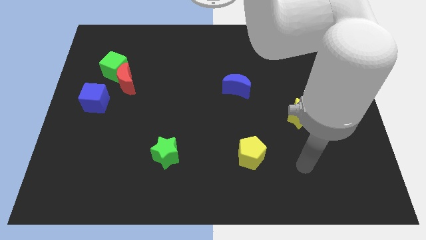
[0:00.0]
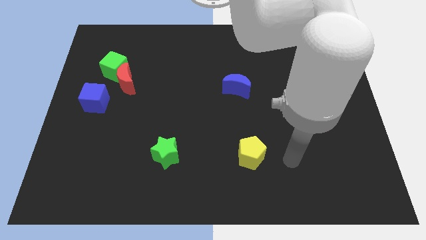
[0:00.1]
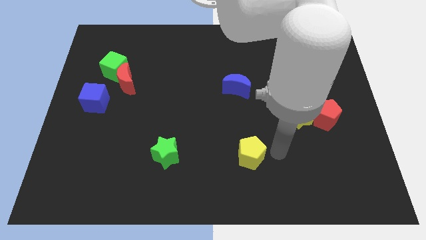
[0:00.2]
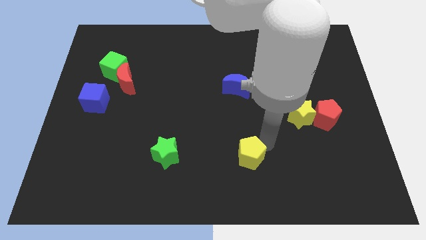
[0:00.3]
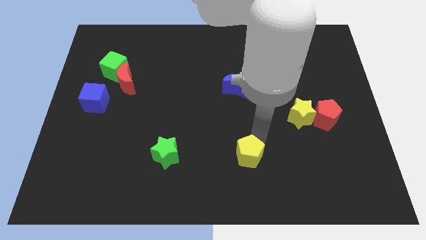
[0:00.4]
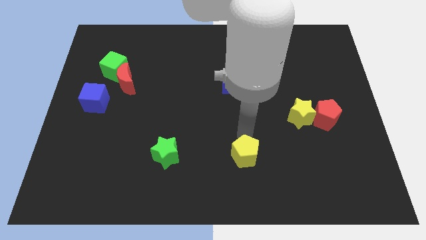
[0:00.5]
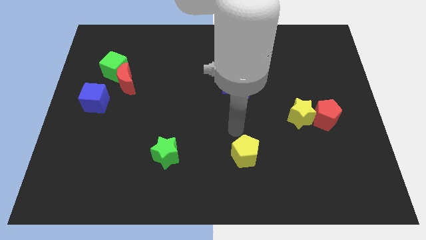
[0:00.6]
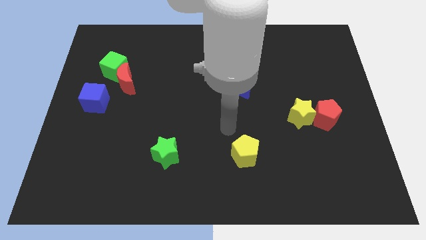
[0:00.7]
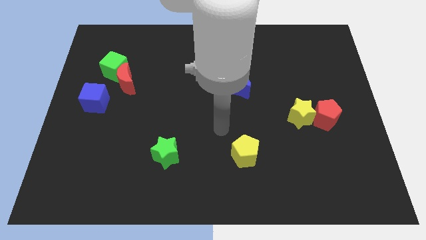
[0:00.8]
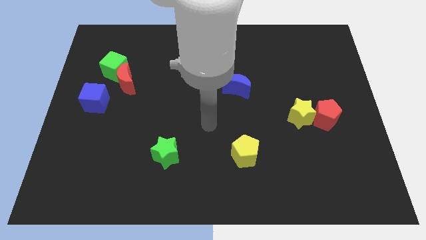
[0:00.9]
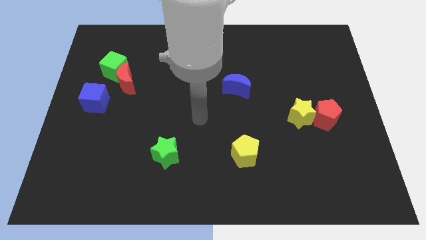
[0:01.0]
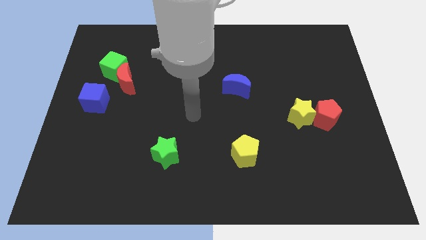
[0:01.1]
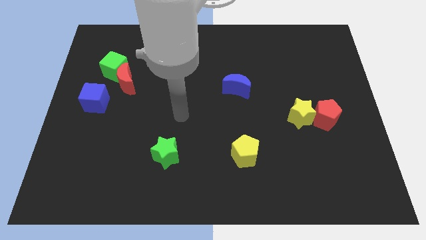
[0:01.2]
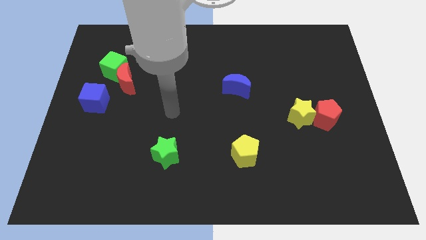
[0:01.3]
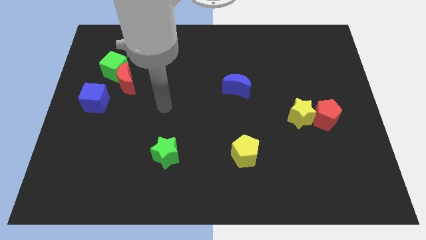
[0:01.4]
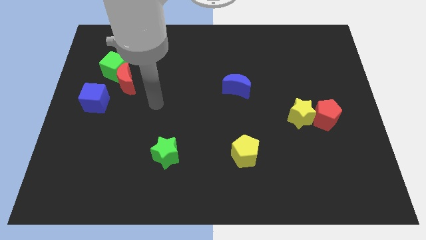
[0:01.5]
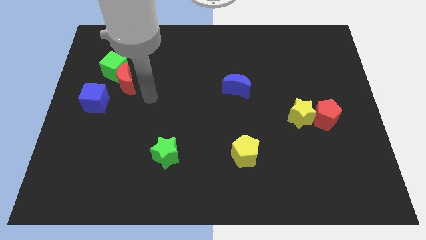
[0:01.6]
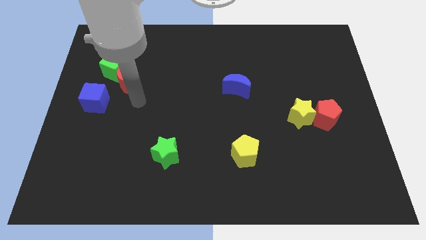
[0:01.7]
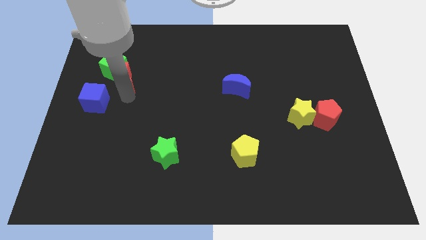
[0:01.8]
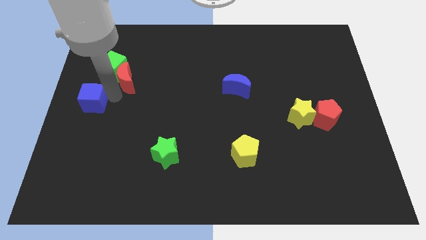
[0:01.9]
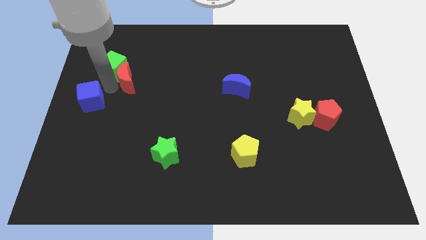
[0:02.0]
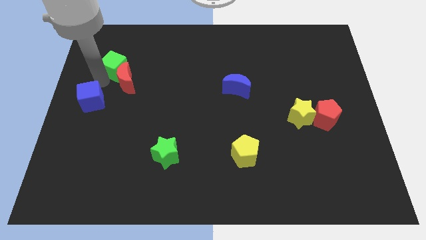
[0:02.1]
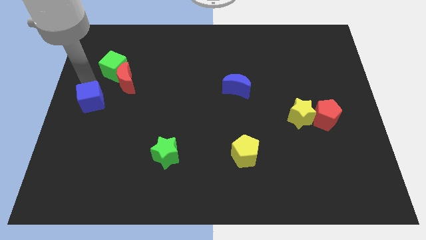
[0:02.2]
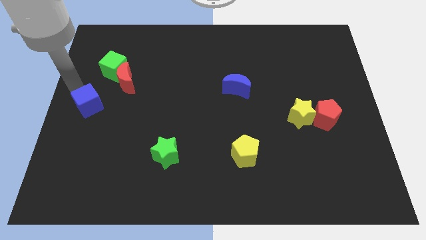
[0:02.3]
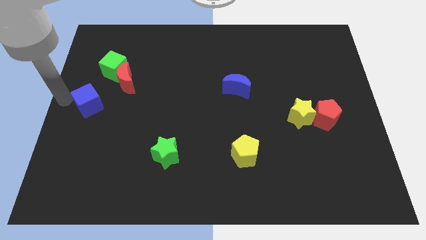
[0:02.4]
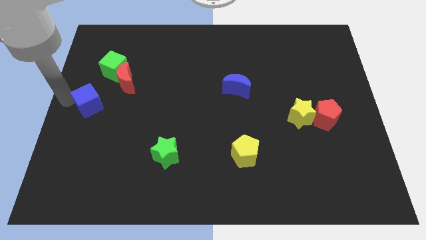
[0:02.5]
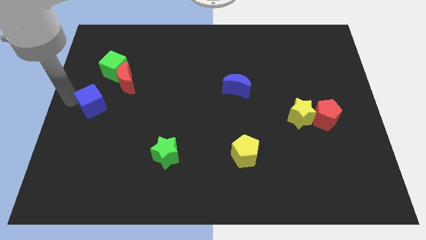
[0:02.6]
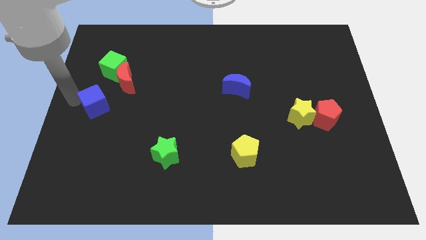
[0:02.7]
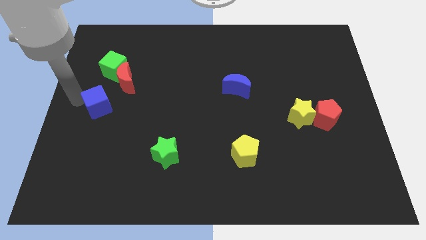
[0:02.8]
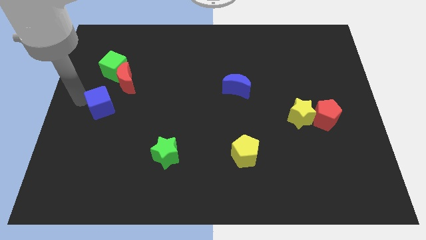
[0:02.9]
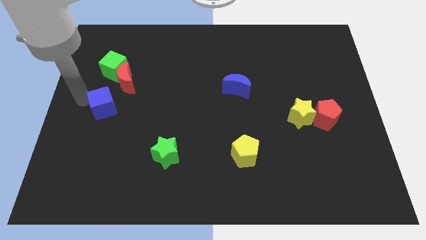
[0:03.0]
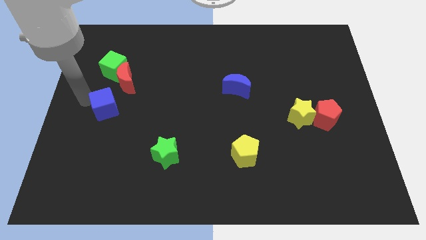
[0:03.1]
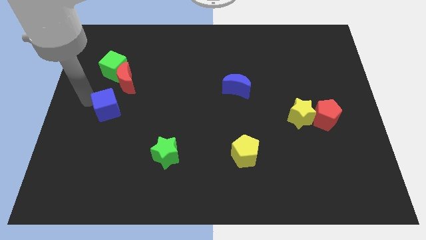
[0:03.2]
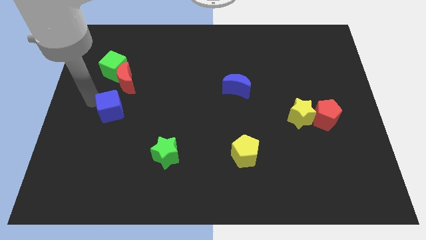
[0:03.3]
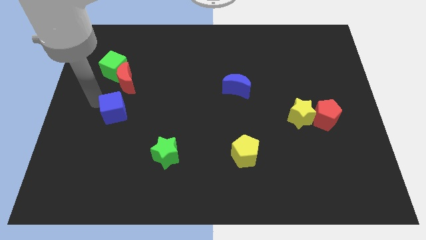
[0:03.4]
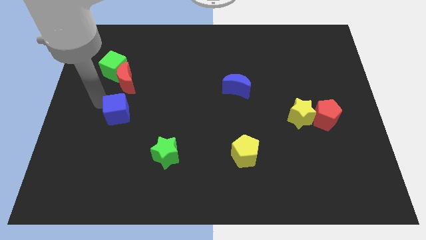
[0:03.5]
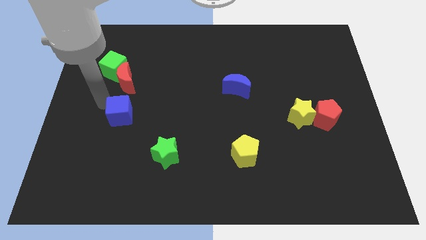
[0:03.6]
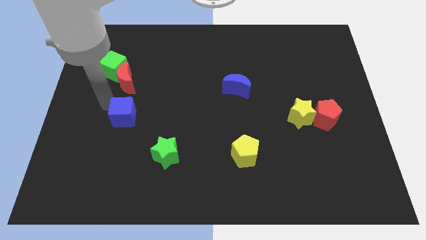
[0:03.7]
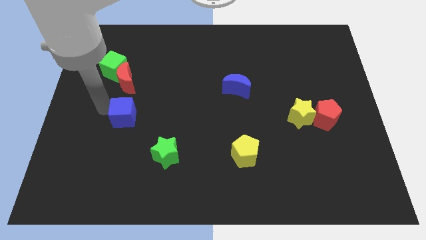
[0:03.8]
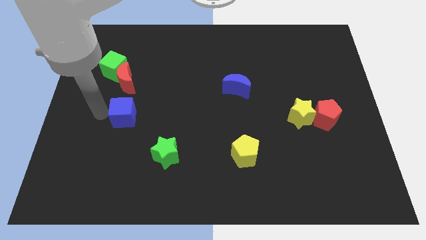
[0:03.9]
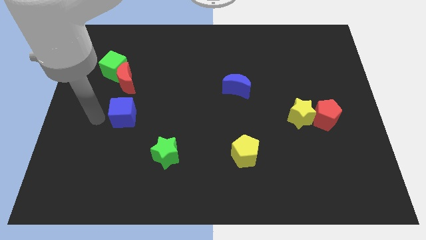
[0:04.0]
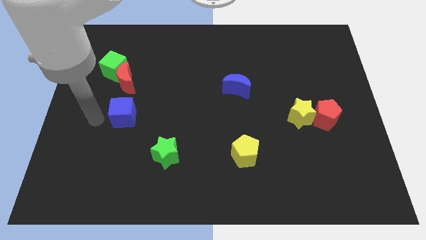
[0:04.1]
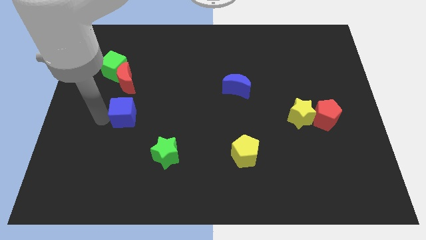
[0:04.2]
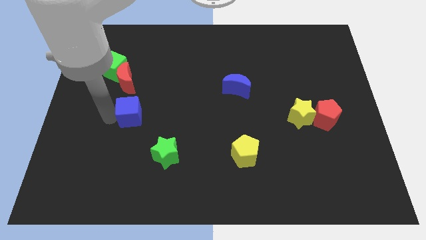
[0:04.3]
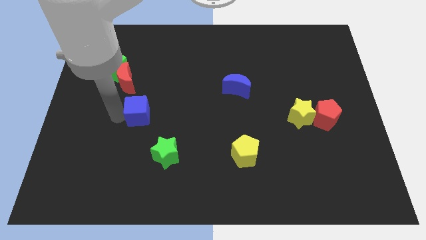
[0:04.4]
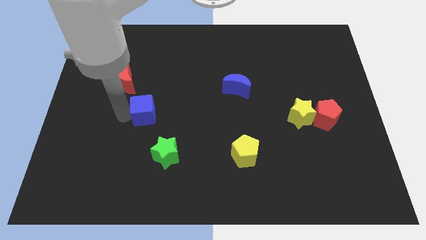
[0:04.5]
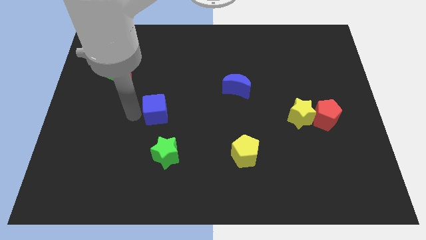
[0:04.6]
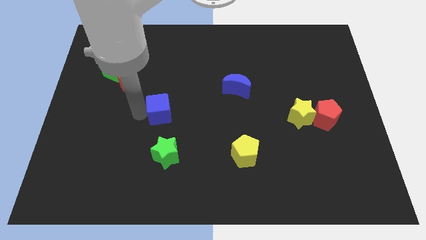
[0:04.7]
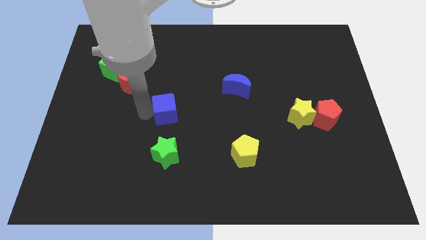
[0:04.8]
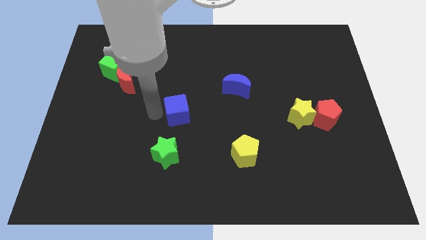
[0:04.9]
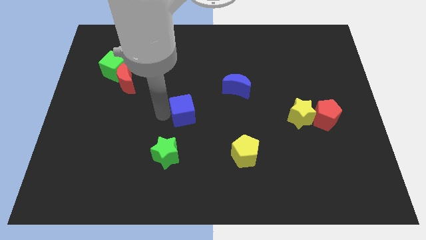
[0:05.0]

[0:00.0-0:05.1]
push the blue cube to the right

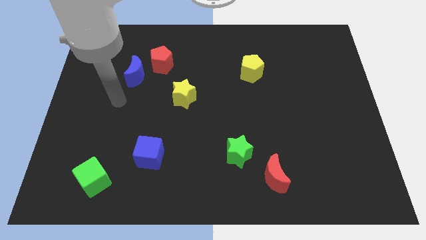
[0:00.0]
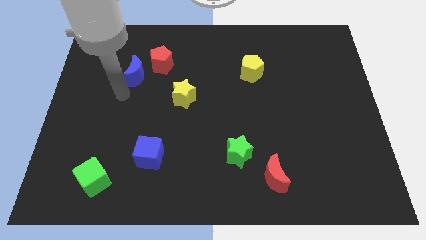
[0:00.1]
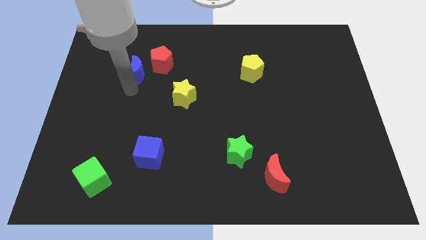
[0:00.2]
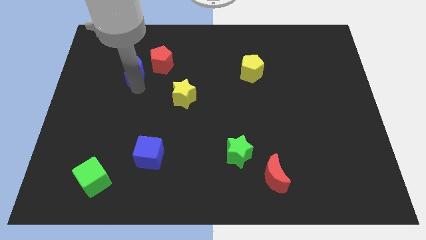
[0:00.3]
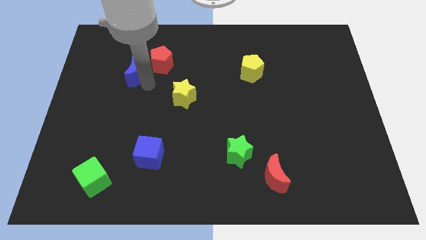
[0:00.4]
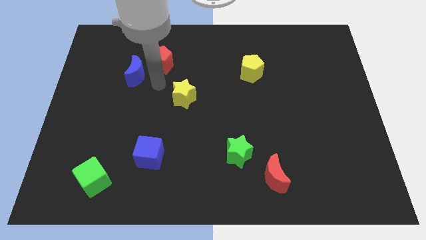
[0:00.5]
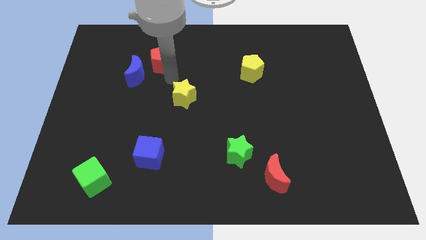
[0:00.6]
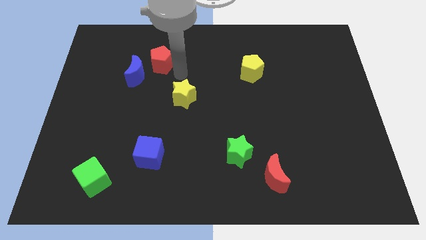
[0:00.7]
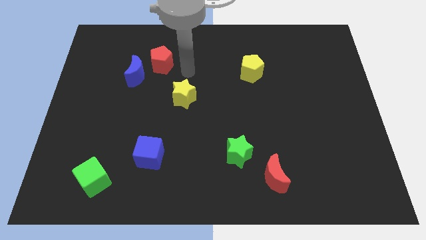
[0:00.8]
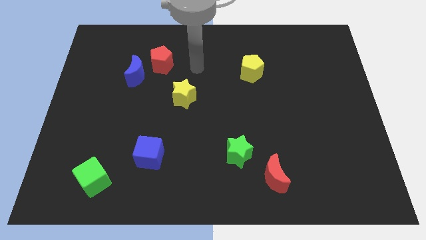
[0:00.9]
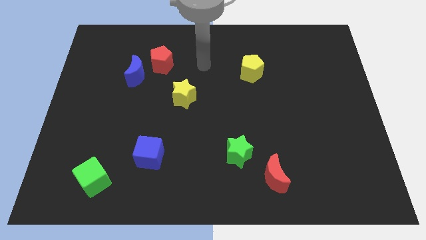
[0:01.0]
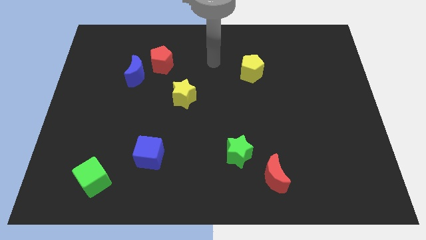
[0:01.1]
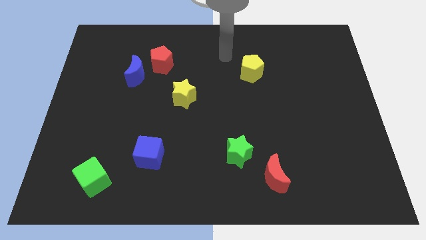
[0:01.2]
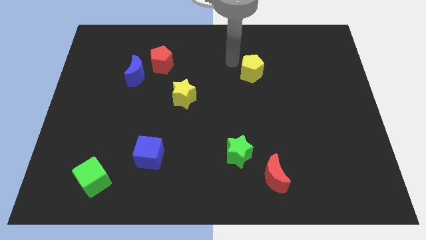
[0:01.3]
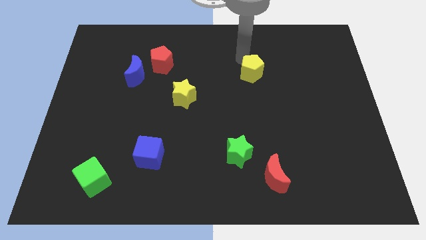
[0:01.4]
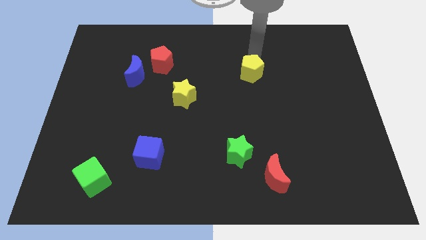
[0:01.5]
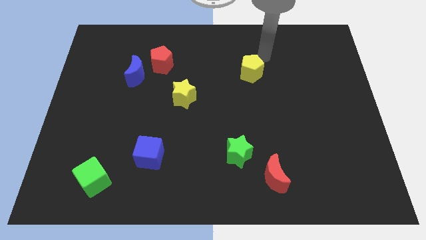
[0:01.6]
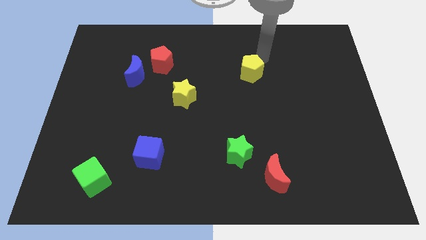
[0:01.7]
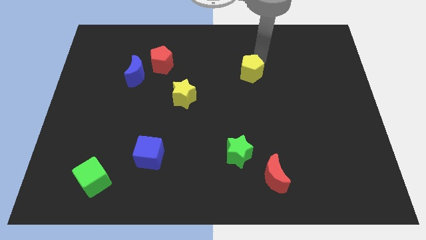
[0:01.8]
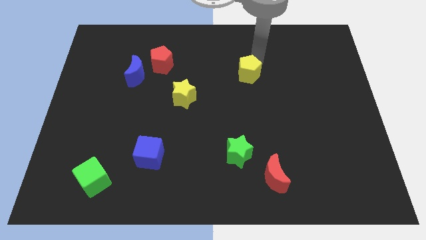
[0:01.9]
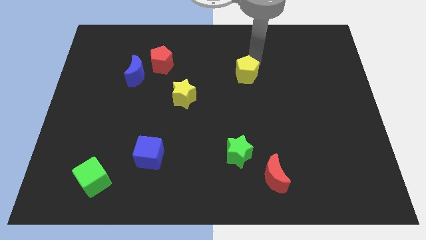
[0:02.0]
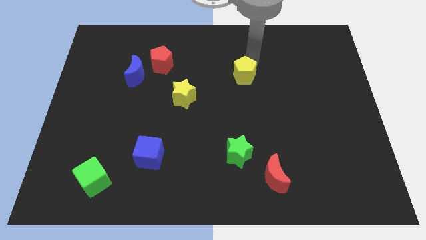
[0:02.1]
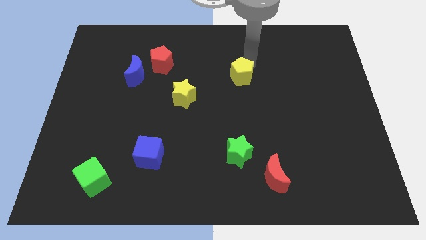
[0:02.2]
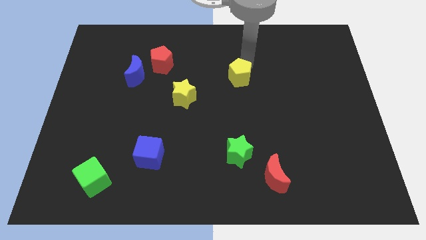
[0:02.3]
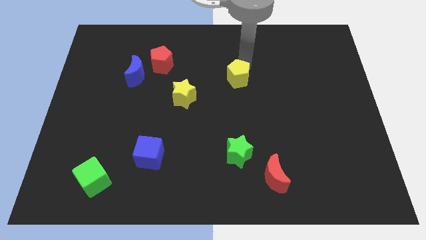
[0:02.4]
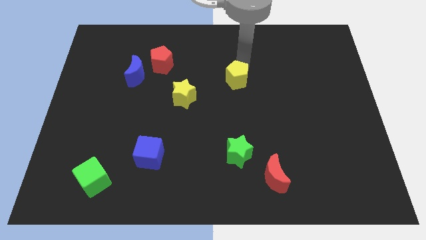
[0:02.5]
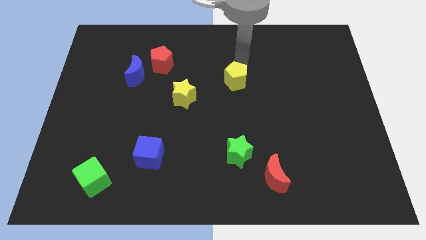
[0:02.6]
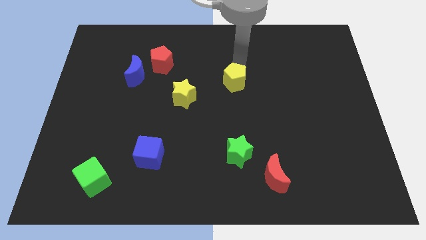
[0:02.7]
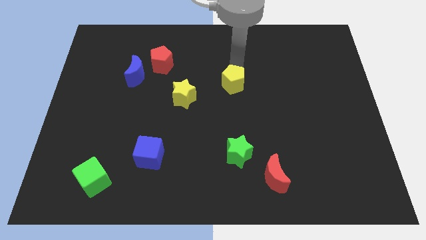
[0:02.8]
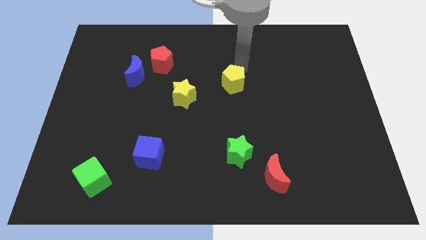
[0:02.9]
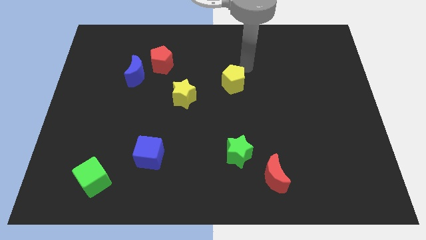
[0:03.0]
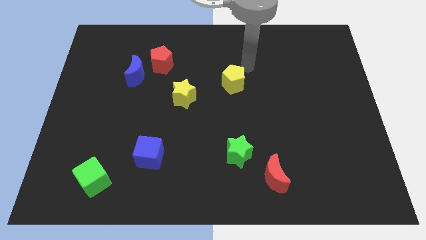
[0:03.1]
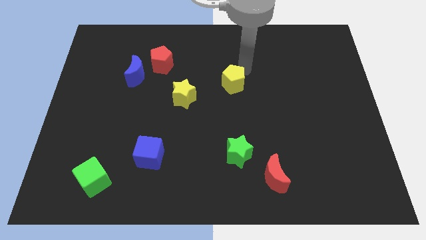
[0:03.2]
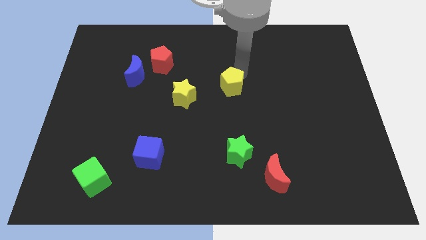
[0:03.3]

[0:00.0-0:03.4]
slightly move the yellow pentagon diagonally down and to the left
